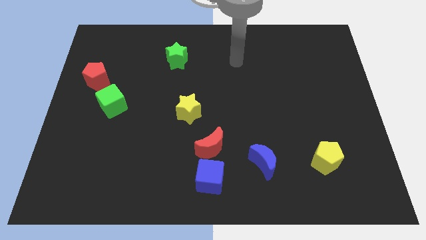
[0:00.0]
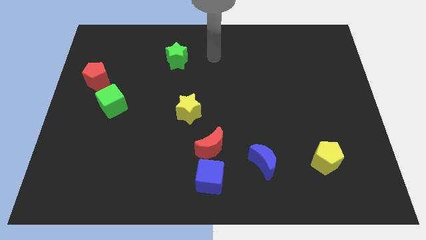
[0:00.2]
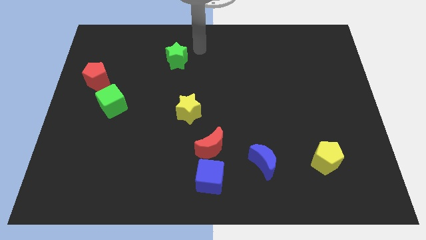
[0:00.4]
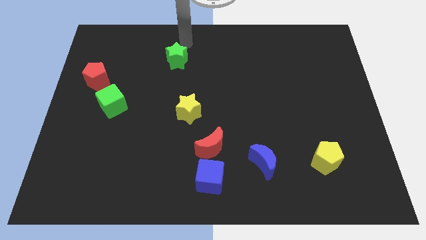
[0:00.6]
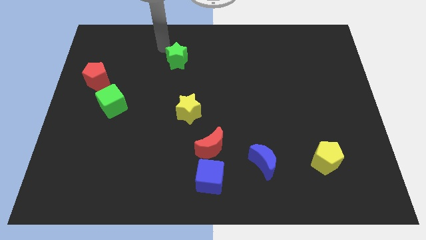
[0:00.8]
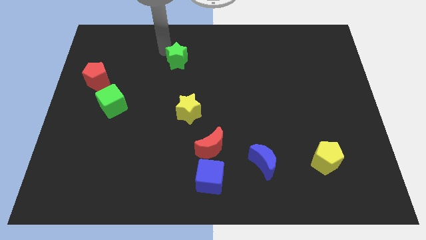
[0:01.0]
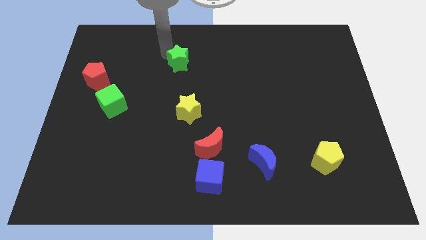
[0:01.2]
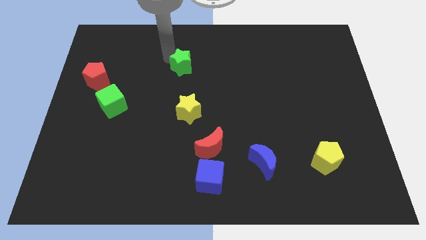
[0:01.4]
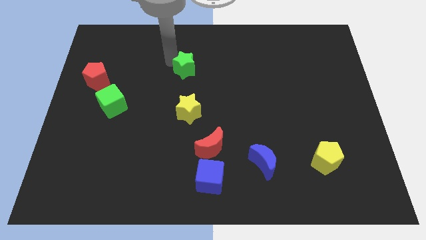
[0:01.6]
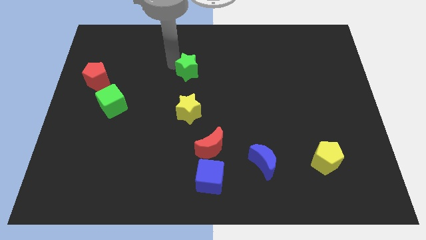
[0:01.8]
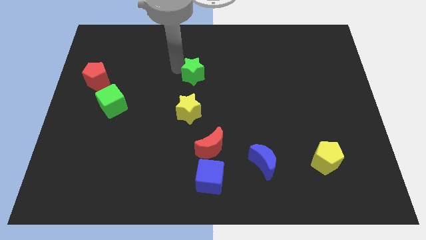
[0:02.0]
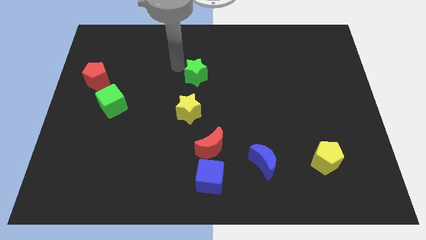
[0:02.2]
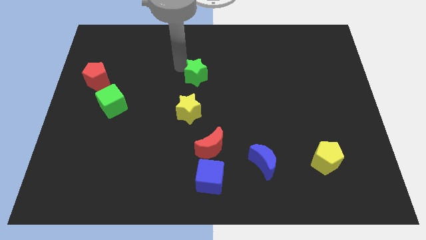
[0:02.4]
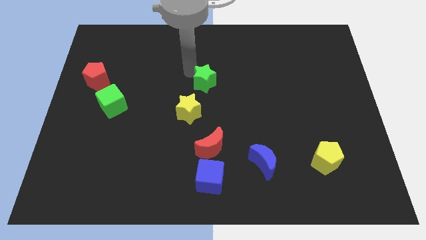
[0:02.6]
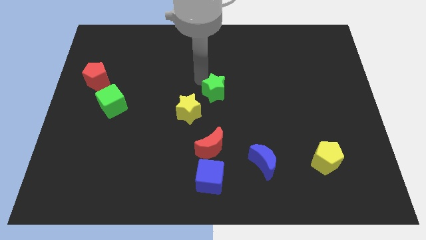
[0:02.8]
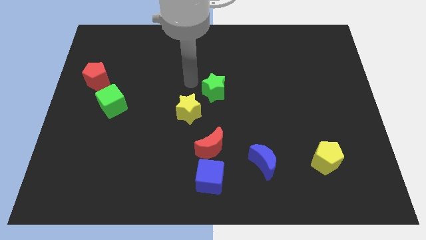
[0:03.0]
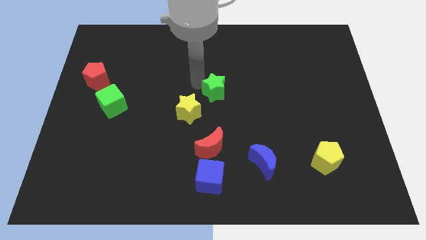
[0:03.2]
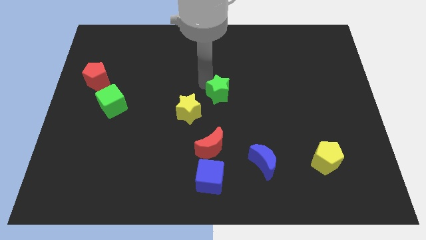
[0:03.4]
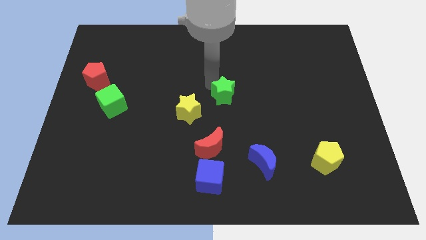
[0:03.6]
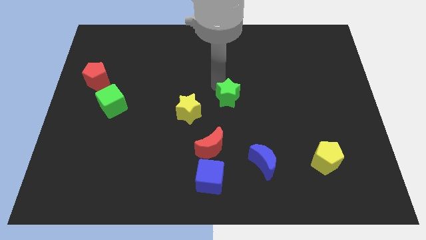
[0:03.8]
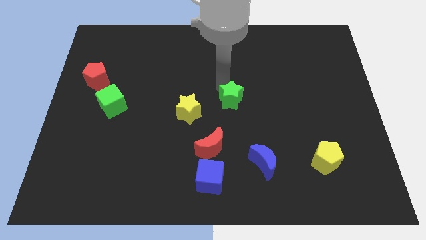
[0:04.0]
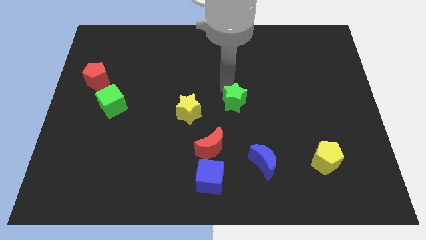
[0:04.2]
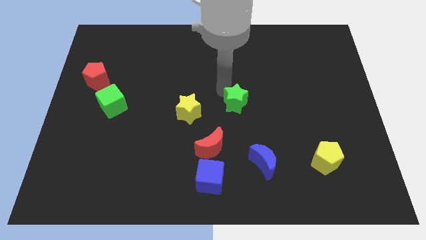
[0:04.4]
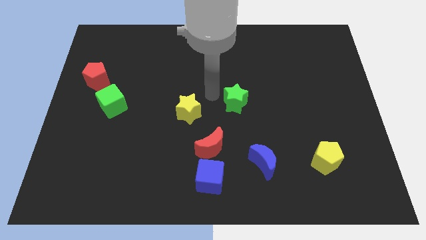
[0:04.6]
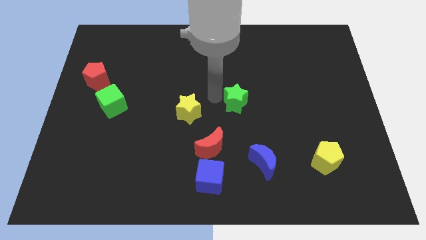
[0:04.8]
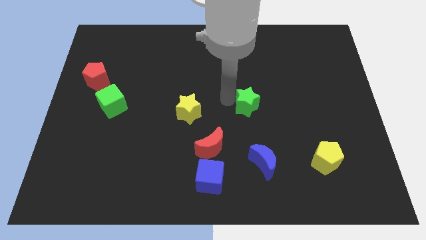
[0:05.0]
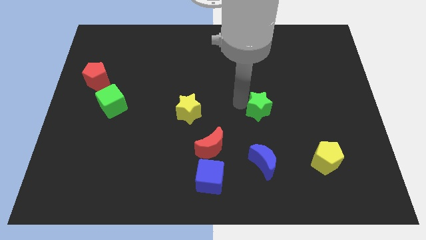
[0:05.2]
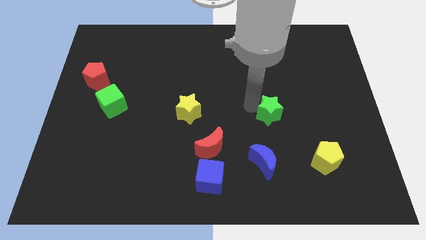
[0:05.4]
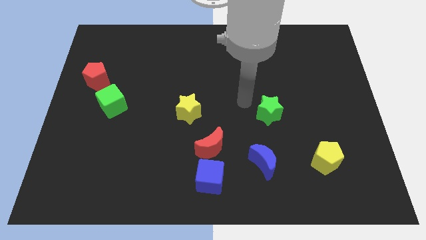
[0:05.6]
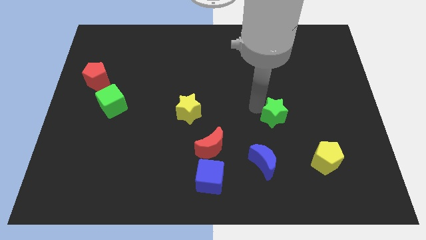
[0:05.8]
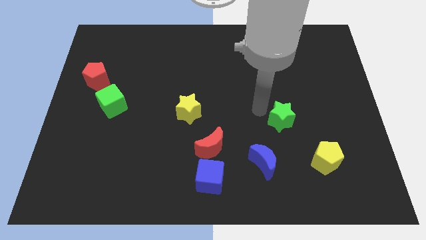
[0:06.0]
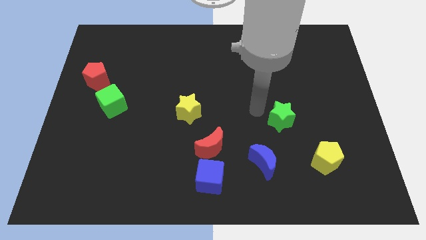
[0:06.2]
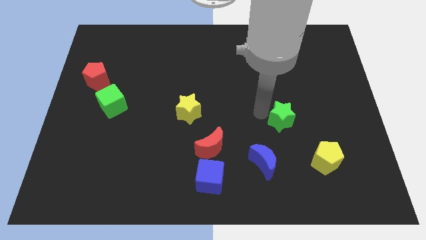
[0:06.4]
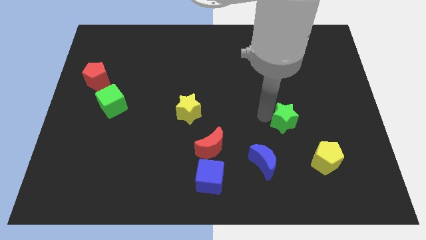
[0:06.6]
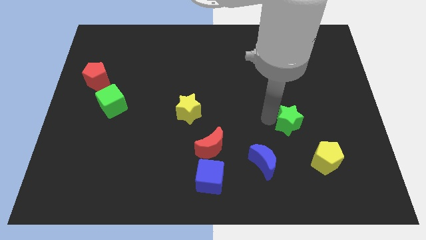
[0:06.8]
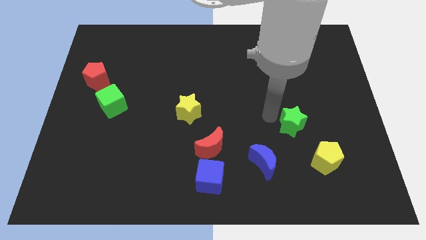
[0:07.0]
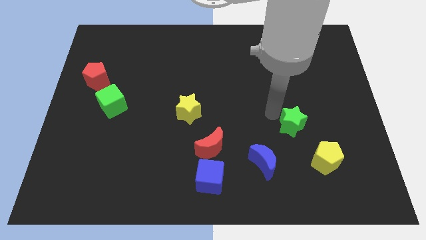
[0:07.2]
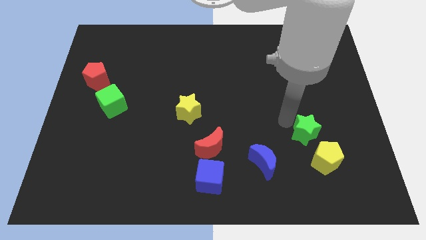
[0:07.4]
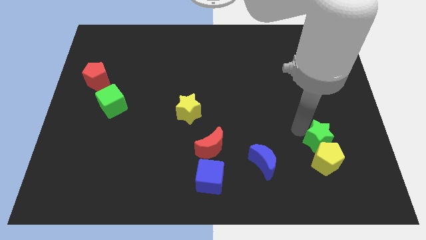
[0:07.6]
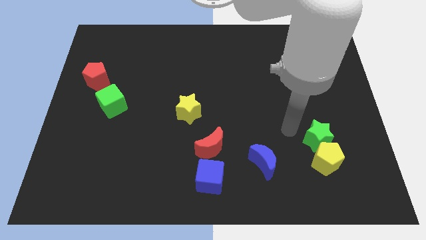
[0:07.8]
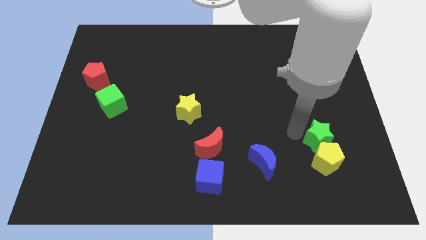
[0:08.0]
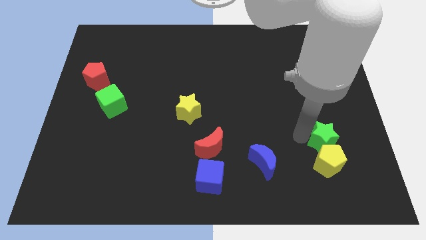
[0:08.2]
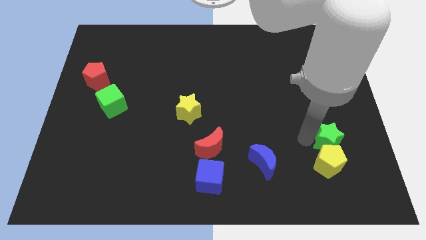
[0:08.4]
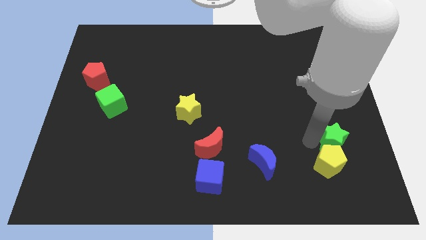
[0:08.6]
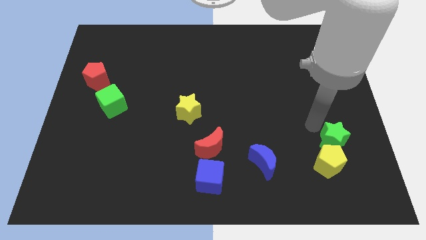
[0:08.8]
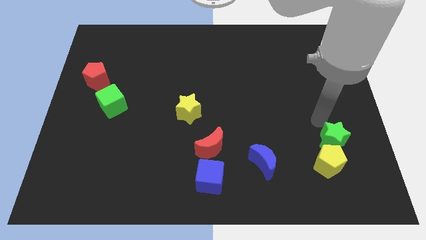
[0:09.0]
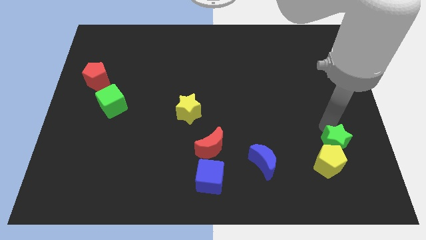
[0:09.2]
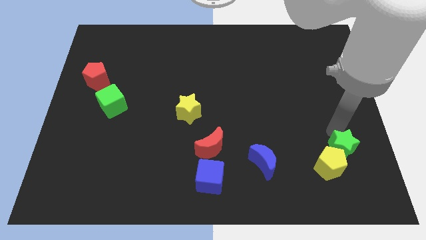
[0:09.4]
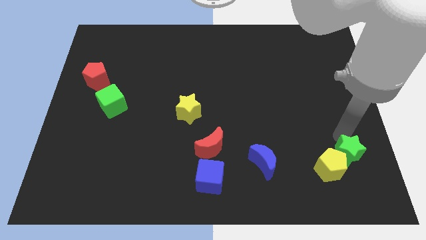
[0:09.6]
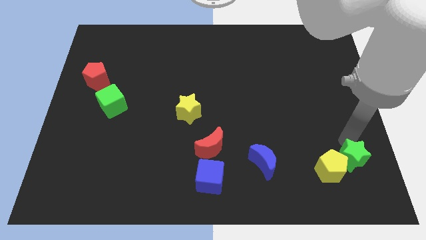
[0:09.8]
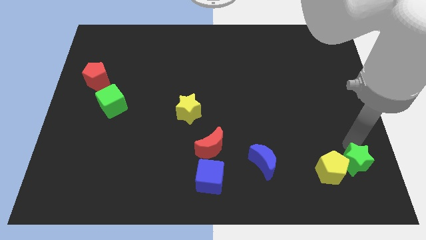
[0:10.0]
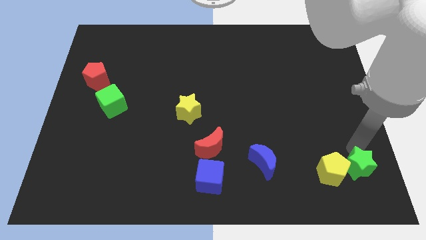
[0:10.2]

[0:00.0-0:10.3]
put the green star to the bottom right corner
